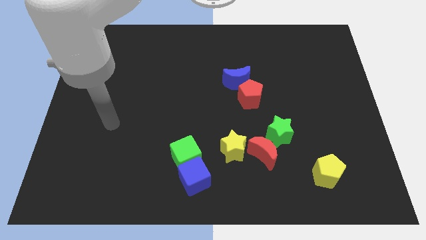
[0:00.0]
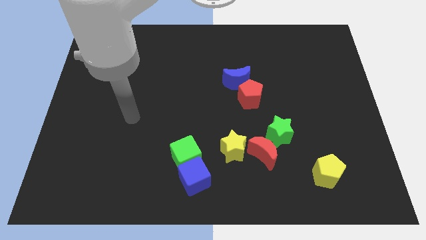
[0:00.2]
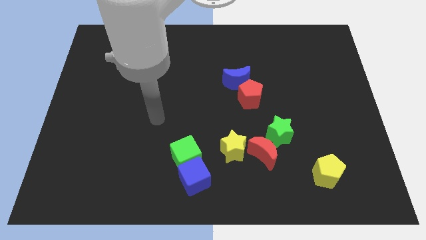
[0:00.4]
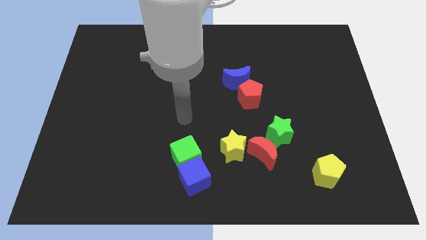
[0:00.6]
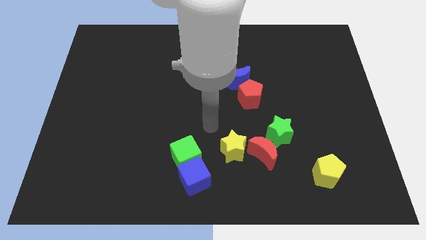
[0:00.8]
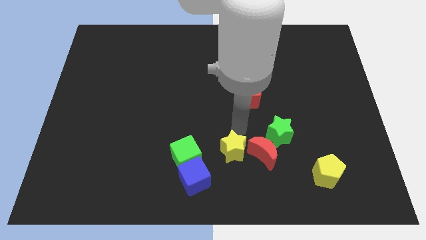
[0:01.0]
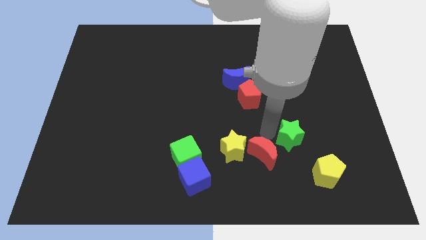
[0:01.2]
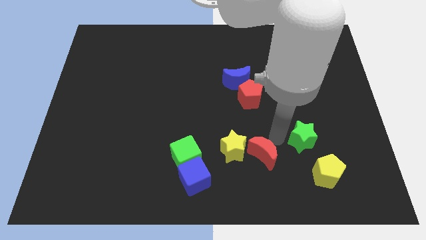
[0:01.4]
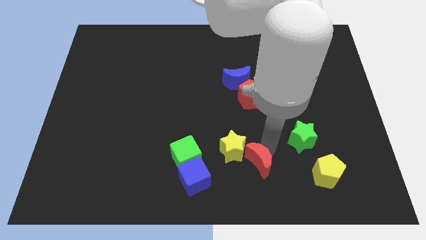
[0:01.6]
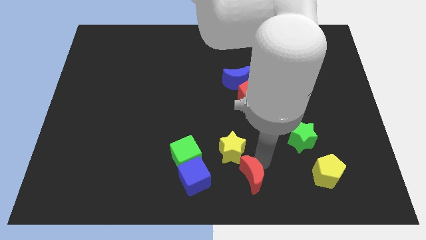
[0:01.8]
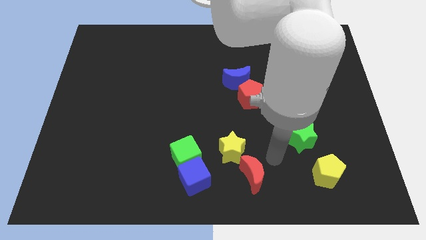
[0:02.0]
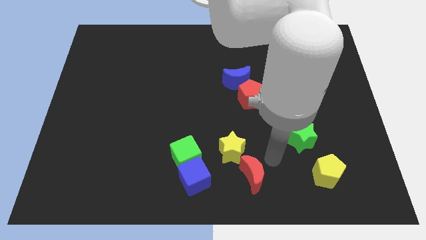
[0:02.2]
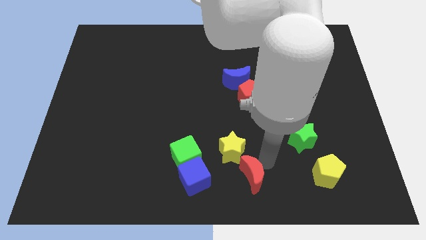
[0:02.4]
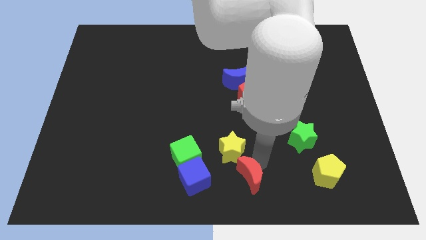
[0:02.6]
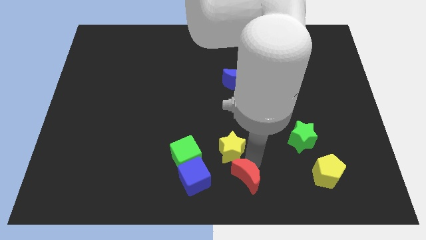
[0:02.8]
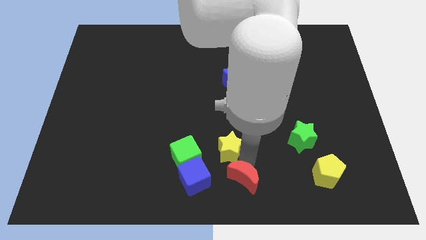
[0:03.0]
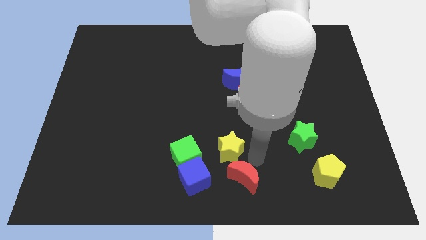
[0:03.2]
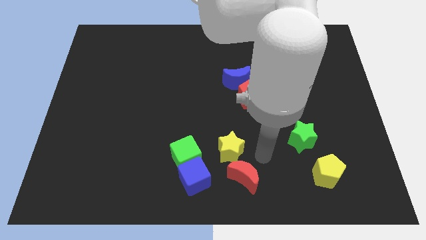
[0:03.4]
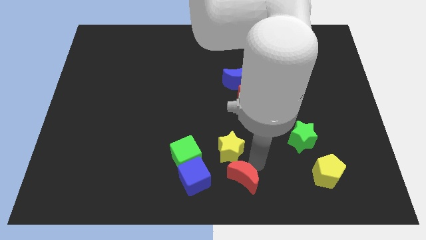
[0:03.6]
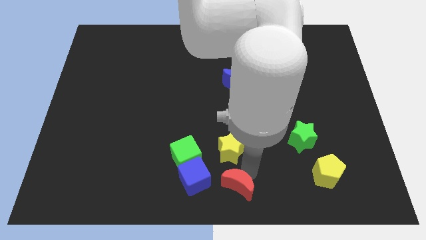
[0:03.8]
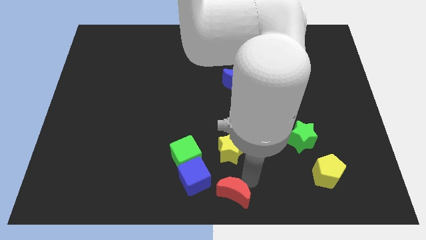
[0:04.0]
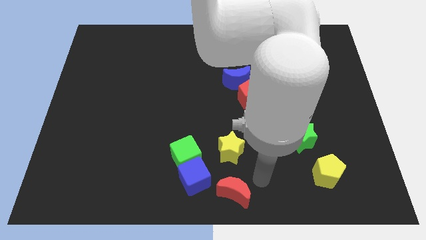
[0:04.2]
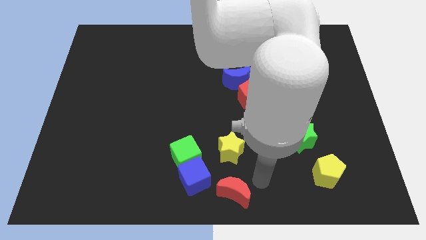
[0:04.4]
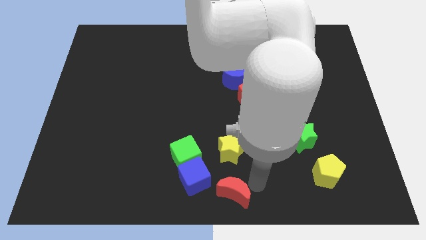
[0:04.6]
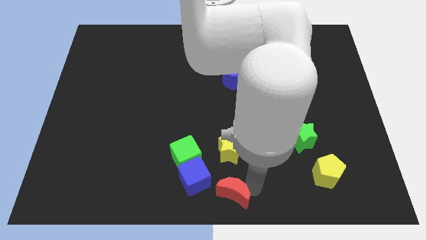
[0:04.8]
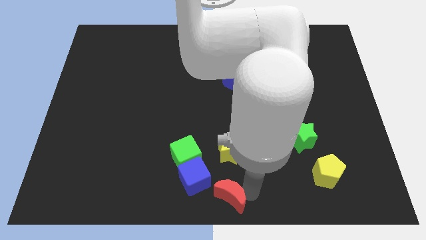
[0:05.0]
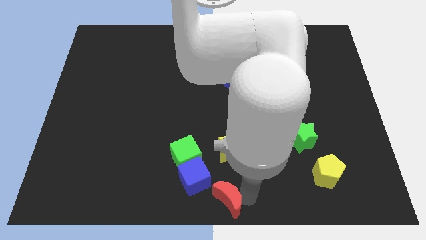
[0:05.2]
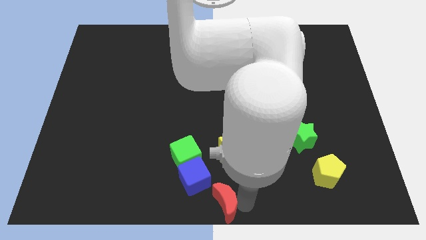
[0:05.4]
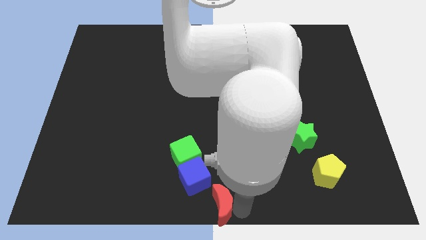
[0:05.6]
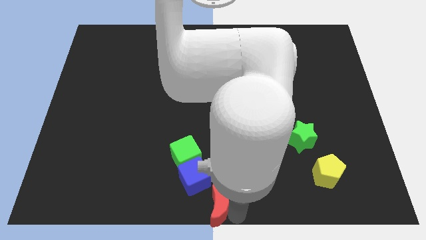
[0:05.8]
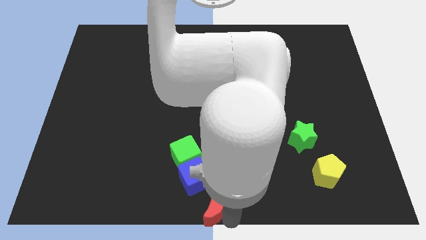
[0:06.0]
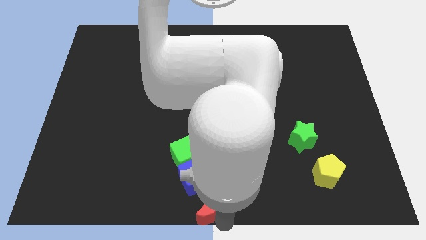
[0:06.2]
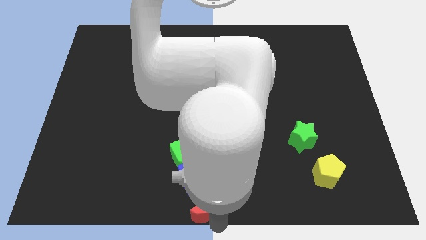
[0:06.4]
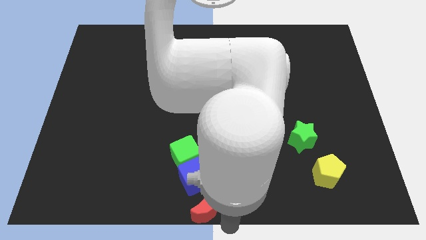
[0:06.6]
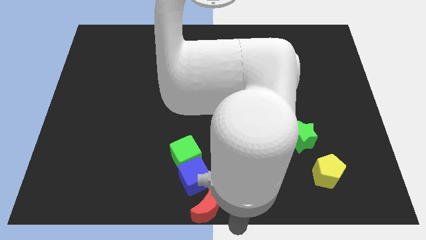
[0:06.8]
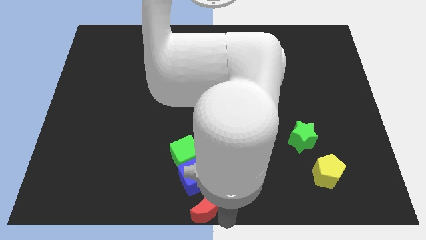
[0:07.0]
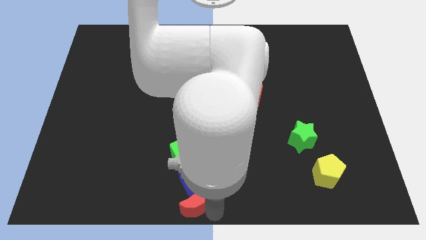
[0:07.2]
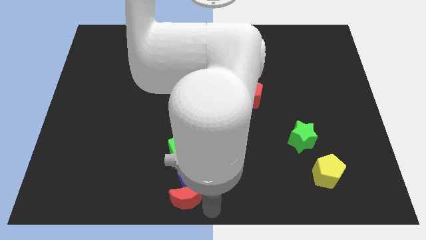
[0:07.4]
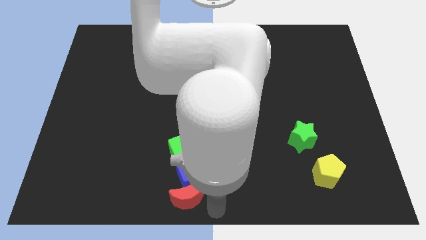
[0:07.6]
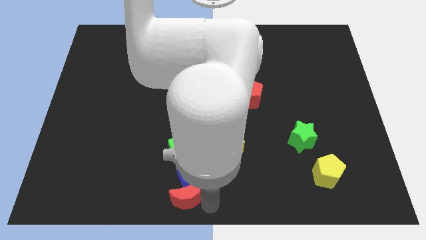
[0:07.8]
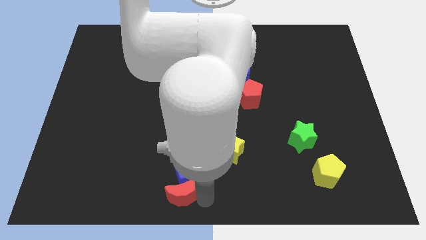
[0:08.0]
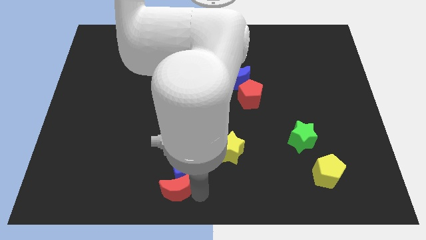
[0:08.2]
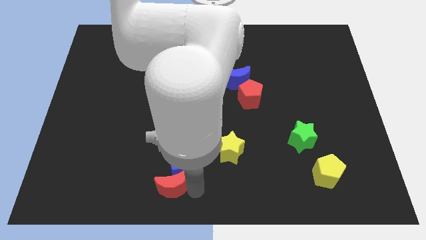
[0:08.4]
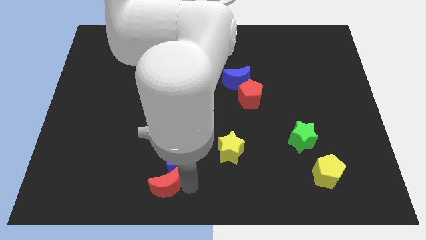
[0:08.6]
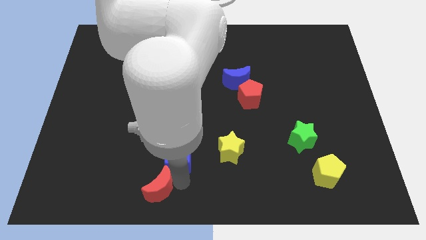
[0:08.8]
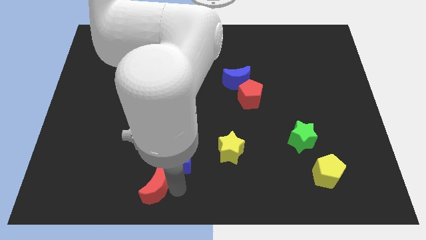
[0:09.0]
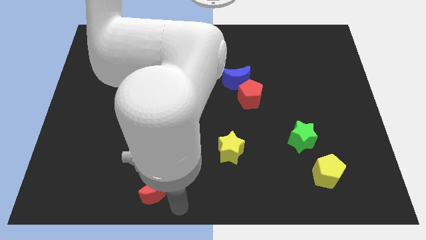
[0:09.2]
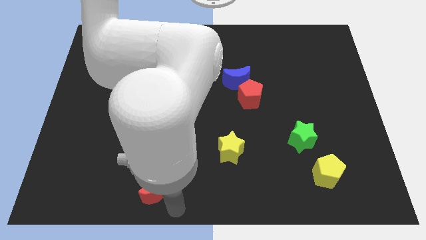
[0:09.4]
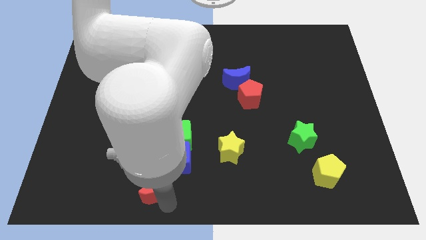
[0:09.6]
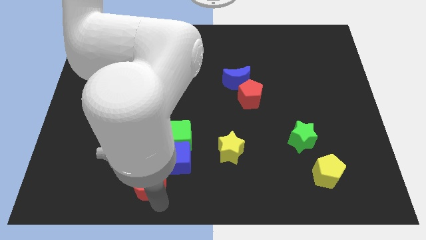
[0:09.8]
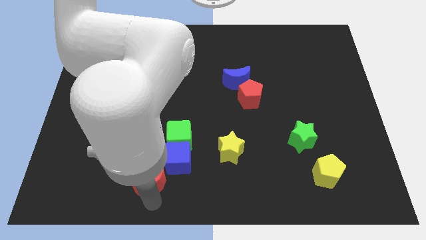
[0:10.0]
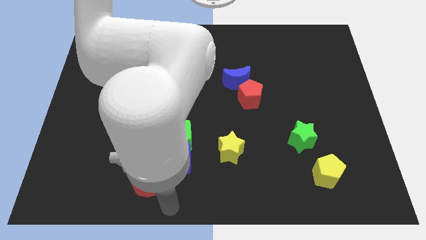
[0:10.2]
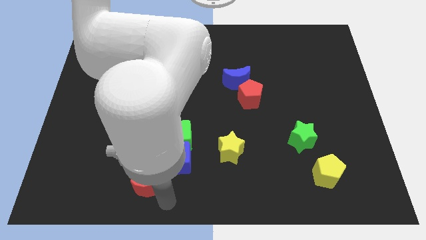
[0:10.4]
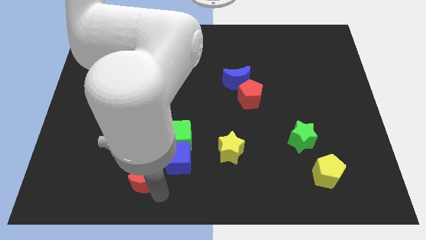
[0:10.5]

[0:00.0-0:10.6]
push the red moon left of the blue cube

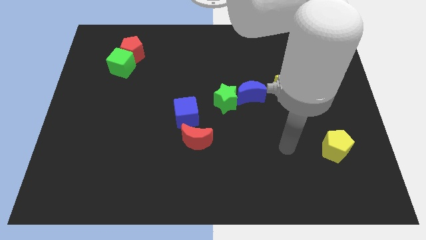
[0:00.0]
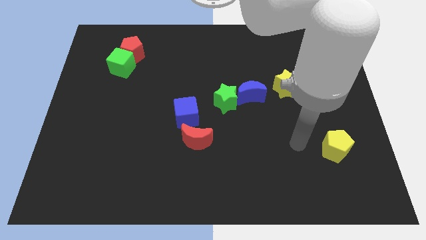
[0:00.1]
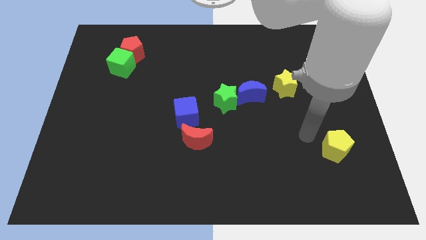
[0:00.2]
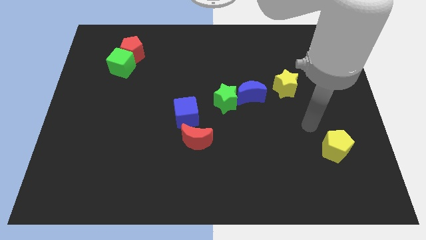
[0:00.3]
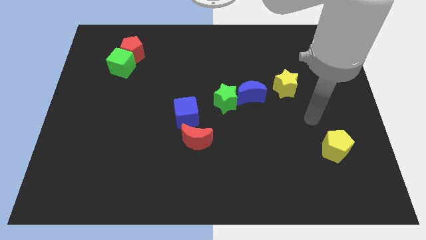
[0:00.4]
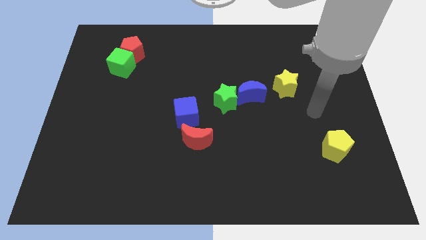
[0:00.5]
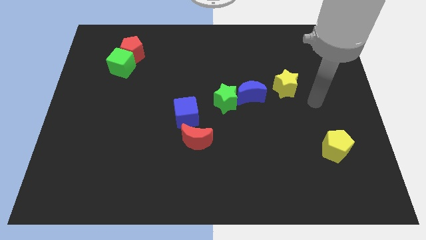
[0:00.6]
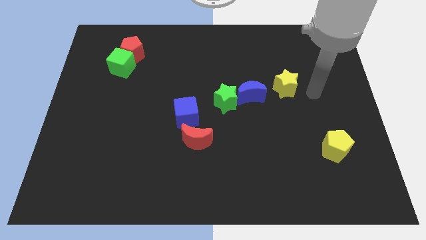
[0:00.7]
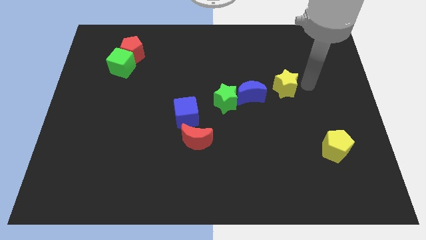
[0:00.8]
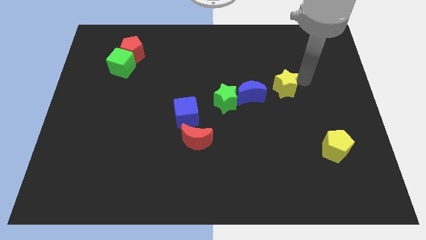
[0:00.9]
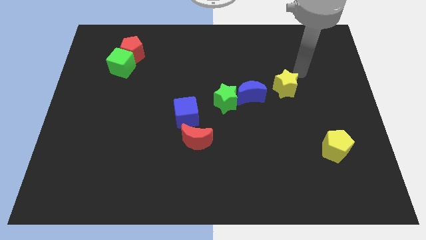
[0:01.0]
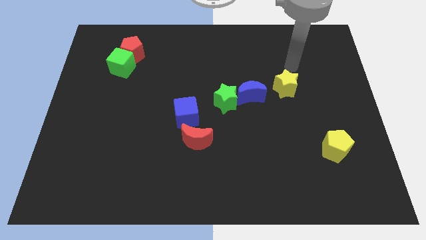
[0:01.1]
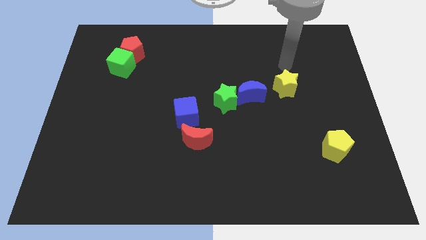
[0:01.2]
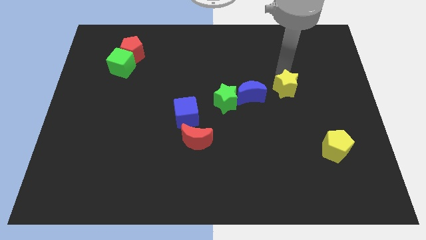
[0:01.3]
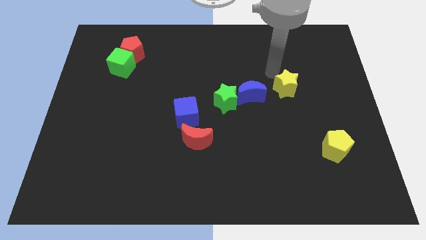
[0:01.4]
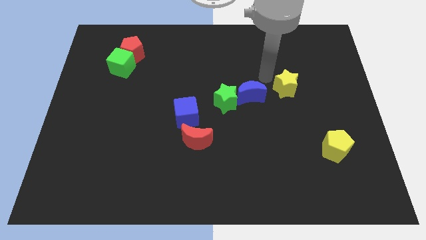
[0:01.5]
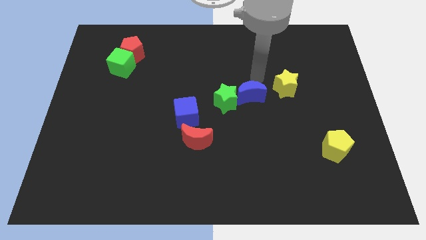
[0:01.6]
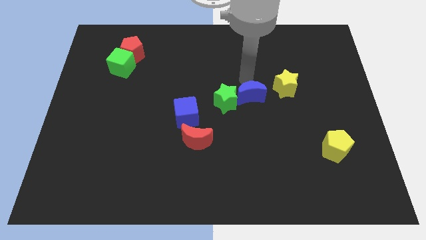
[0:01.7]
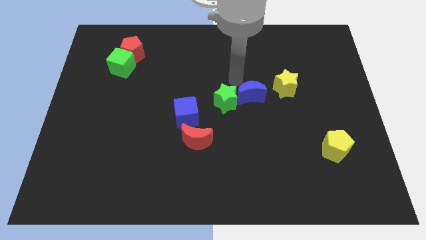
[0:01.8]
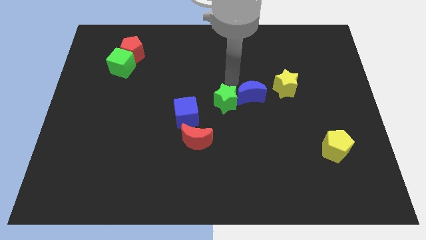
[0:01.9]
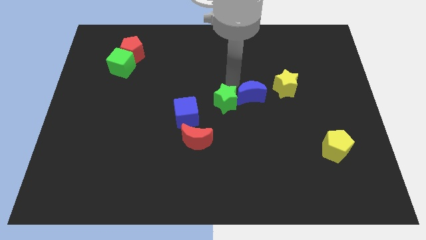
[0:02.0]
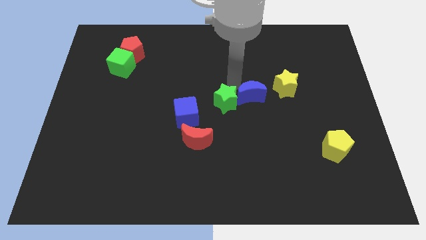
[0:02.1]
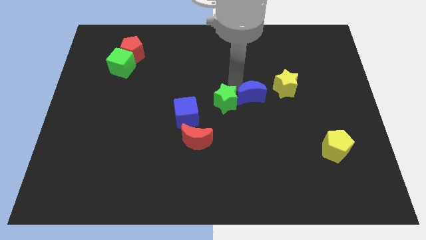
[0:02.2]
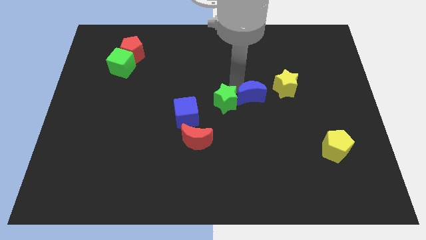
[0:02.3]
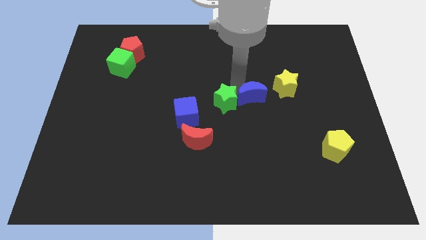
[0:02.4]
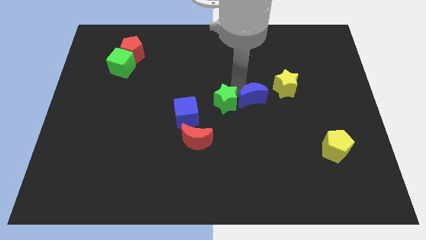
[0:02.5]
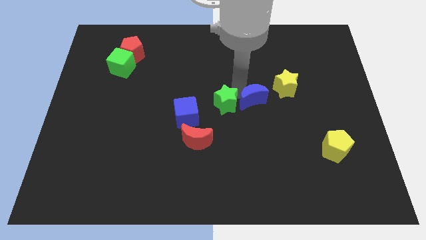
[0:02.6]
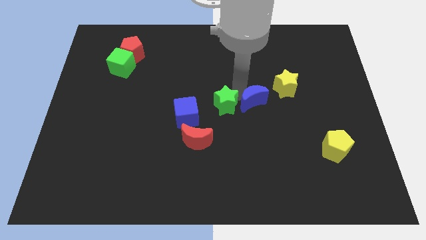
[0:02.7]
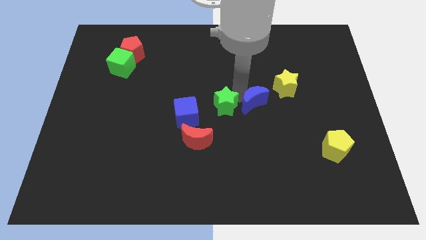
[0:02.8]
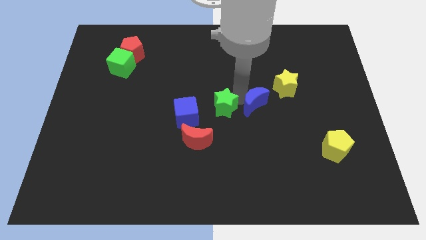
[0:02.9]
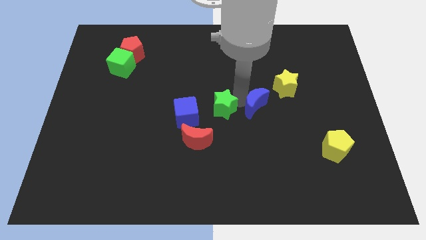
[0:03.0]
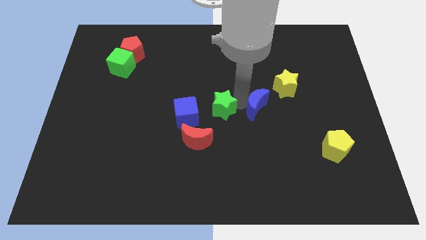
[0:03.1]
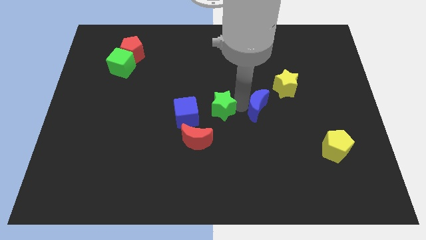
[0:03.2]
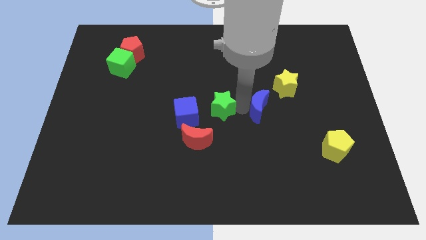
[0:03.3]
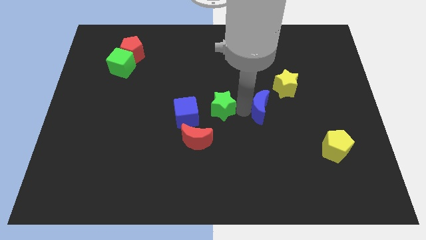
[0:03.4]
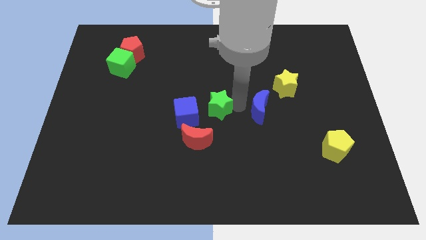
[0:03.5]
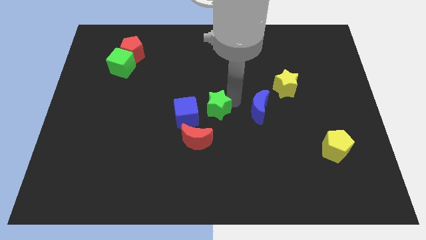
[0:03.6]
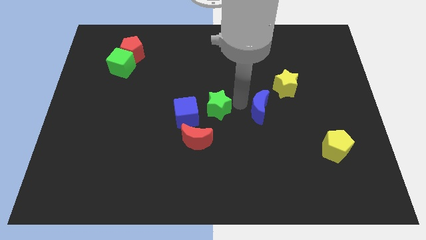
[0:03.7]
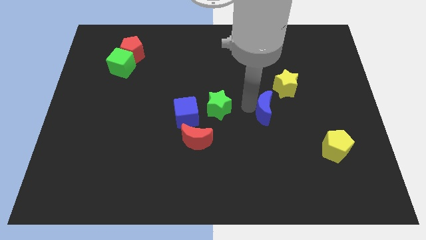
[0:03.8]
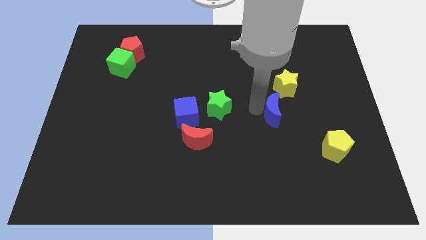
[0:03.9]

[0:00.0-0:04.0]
push the blue moon to the bottom side of the yellow star
